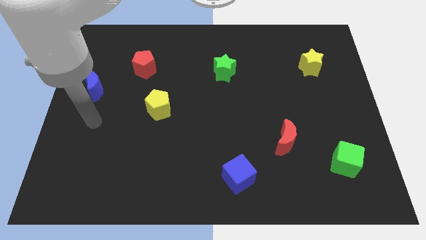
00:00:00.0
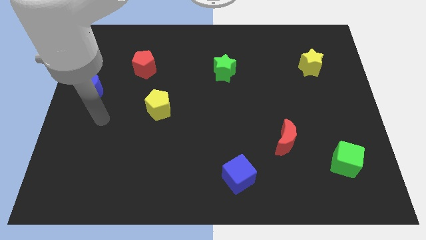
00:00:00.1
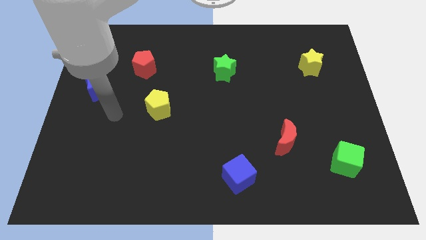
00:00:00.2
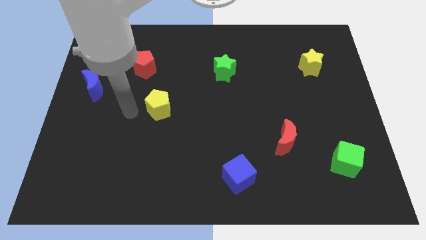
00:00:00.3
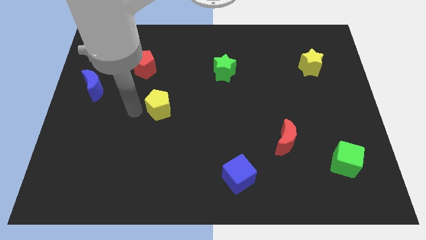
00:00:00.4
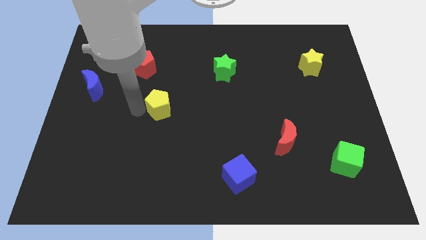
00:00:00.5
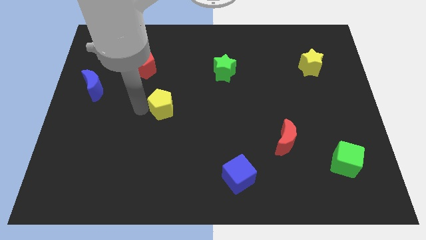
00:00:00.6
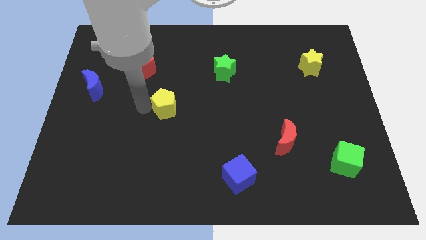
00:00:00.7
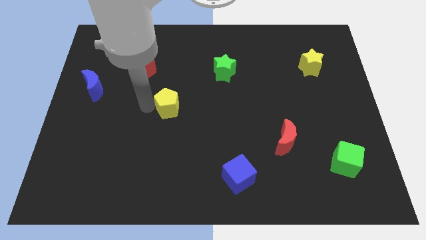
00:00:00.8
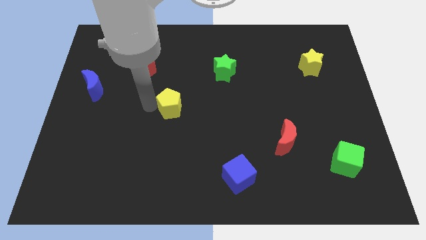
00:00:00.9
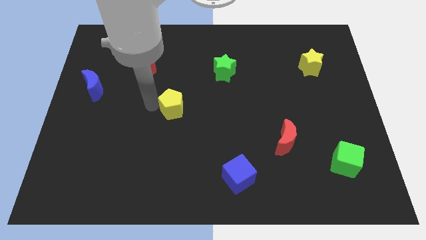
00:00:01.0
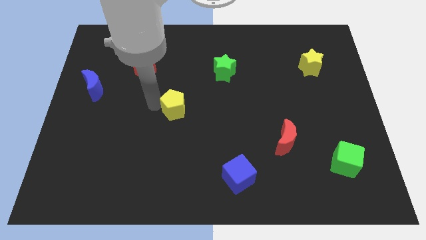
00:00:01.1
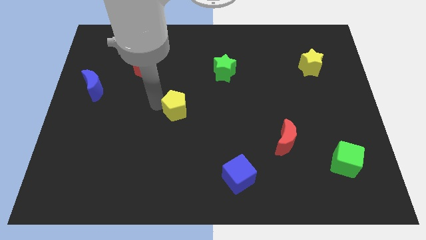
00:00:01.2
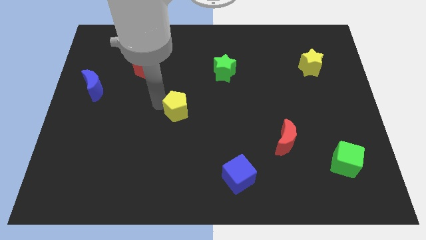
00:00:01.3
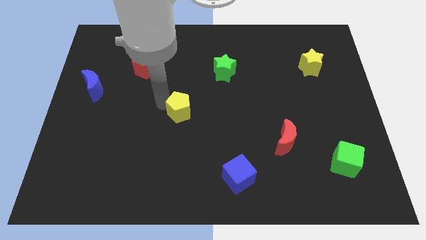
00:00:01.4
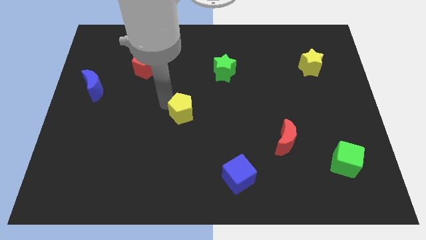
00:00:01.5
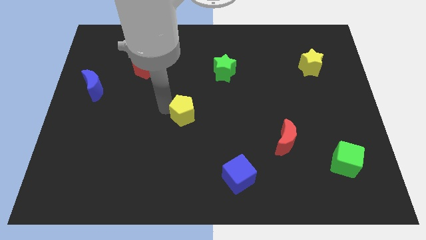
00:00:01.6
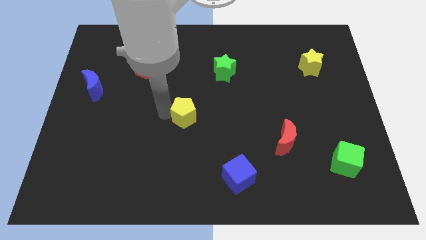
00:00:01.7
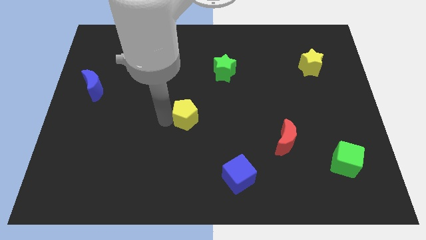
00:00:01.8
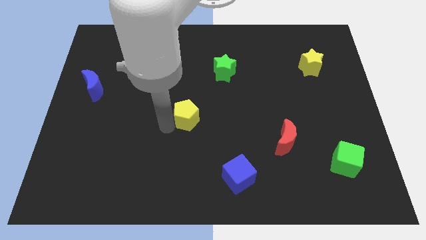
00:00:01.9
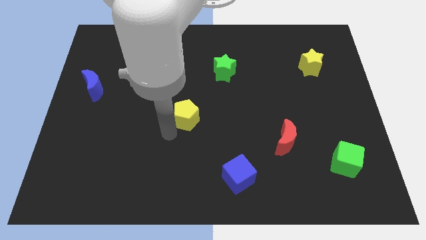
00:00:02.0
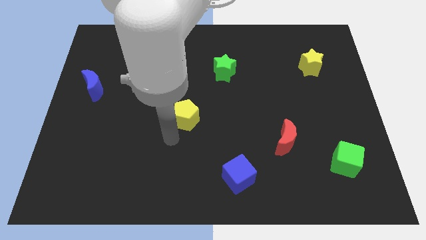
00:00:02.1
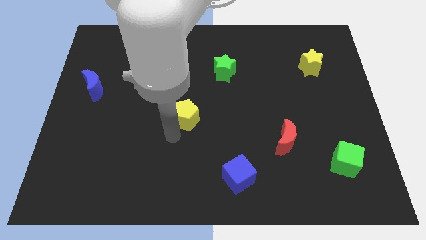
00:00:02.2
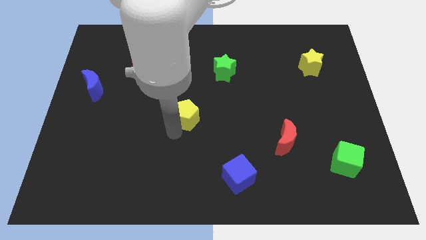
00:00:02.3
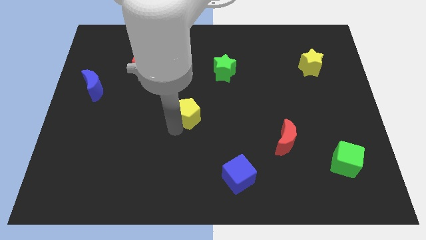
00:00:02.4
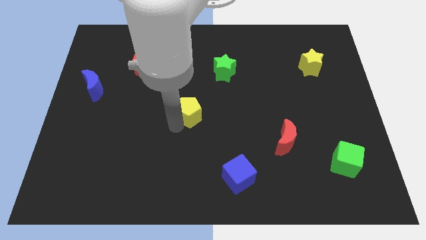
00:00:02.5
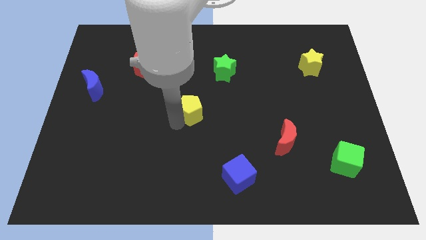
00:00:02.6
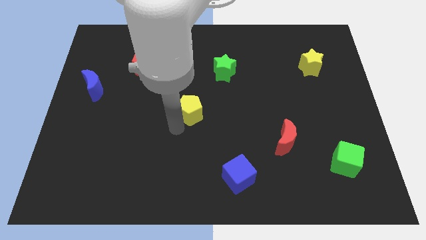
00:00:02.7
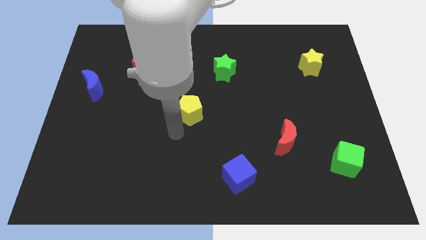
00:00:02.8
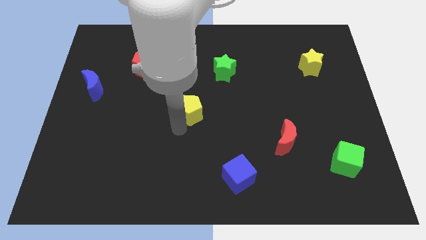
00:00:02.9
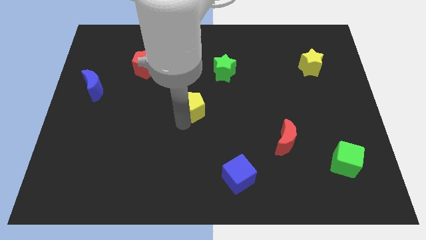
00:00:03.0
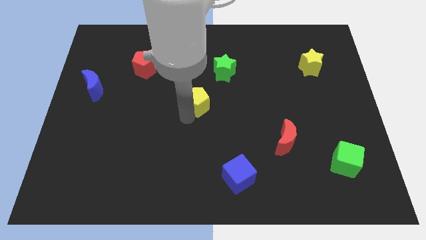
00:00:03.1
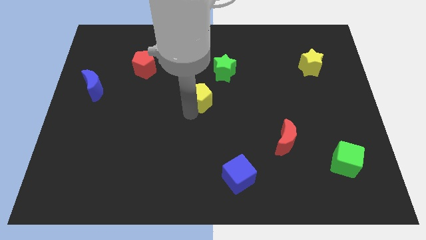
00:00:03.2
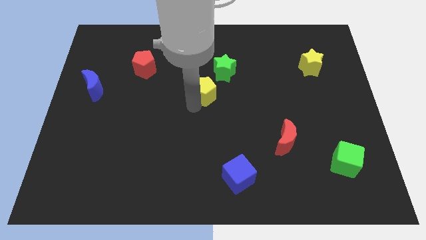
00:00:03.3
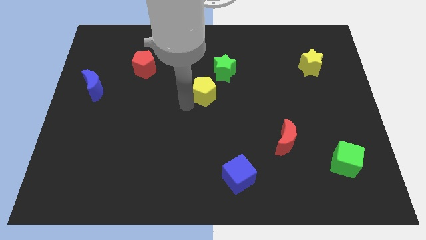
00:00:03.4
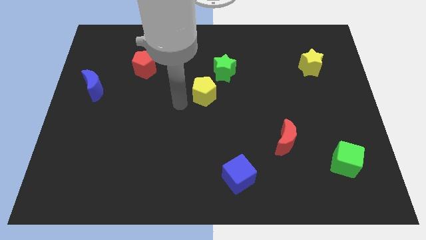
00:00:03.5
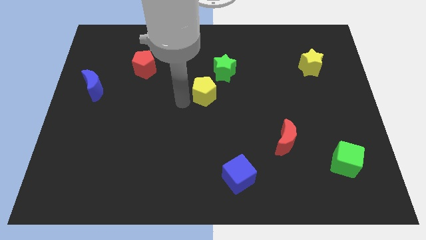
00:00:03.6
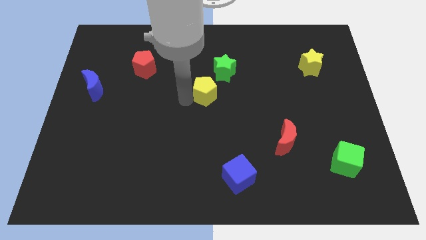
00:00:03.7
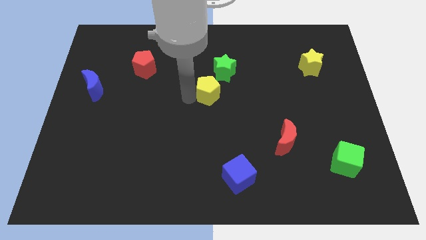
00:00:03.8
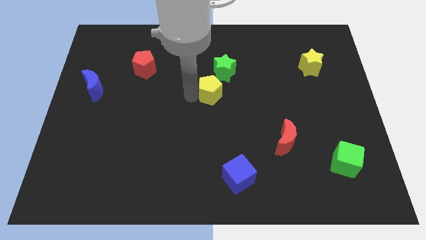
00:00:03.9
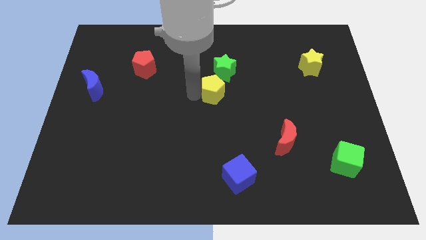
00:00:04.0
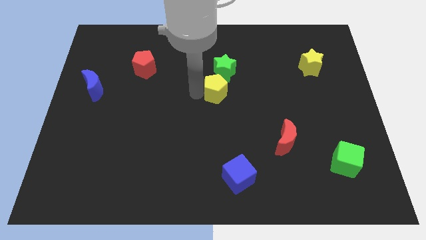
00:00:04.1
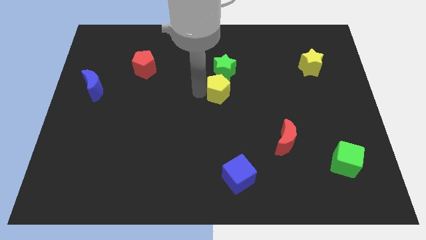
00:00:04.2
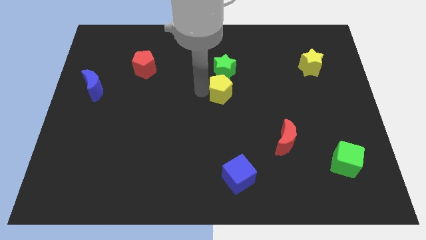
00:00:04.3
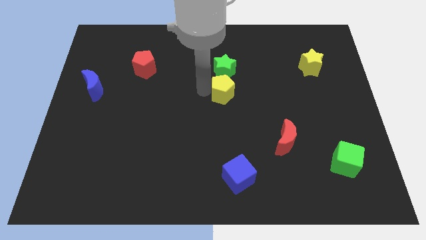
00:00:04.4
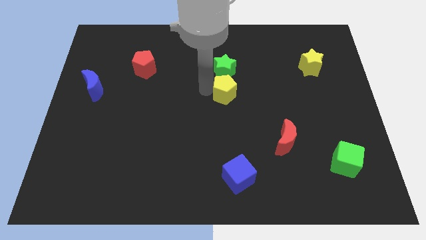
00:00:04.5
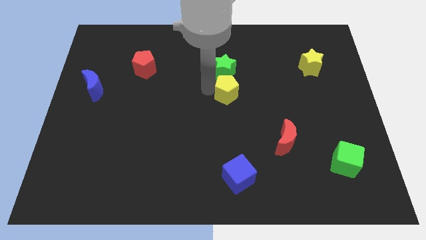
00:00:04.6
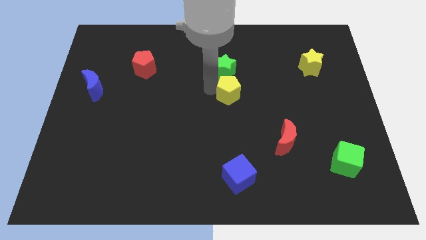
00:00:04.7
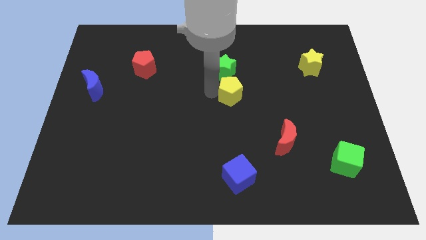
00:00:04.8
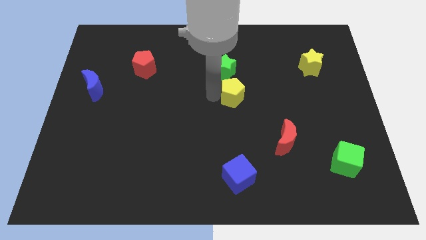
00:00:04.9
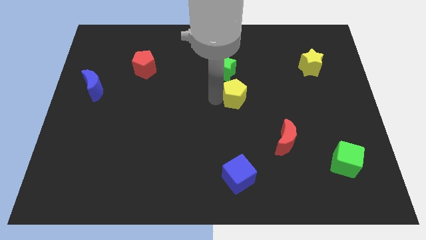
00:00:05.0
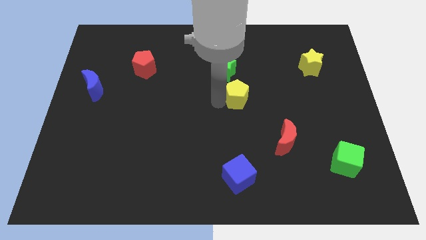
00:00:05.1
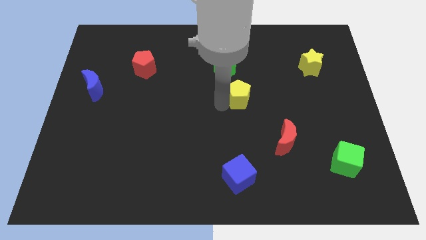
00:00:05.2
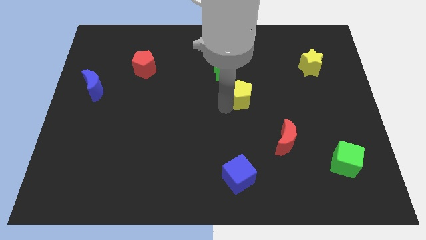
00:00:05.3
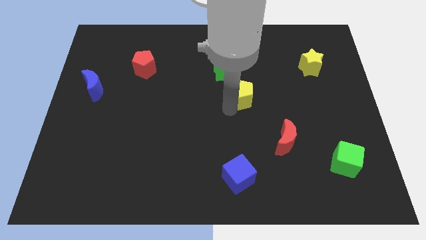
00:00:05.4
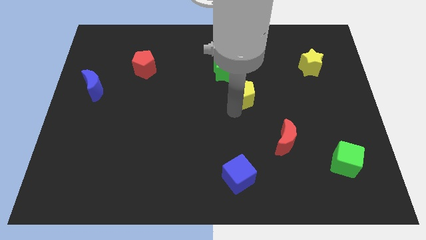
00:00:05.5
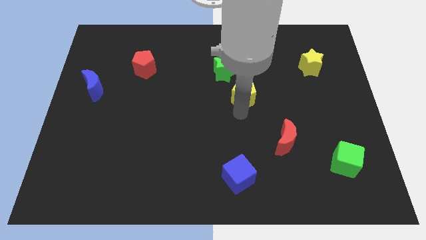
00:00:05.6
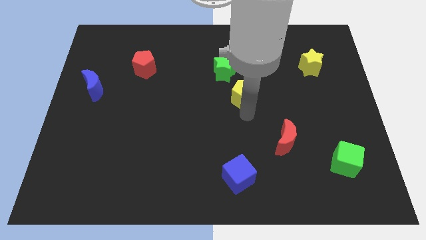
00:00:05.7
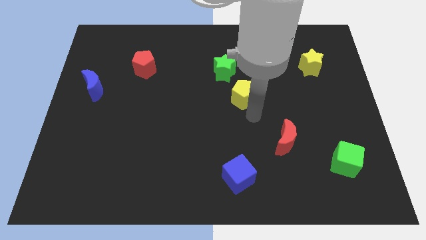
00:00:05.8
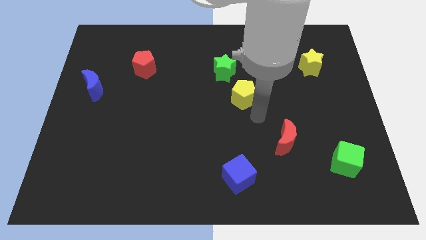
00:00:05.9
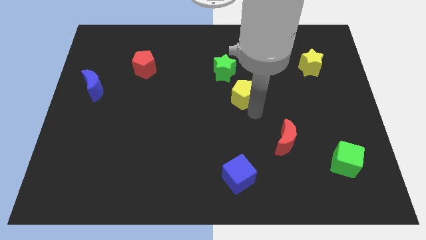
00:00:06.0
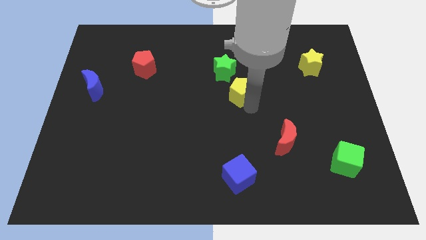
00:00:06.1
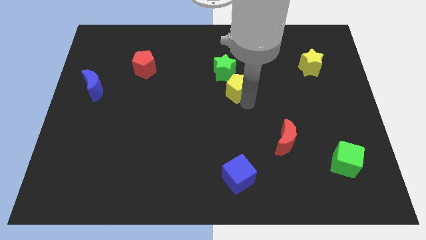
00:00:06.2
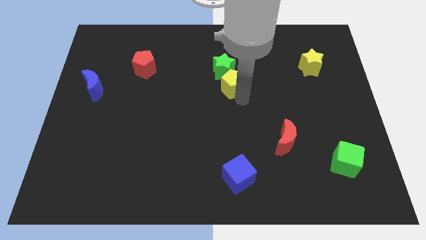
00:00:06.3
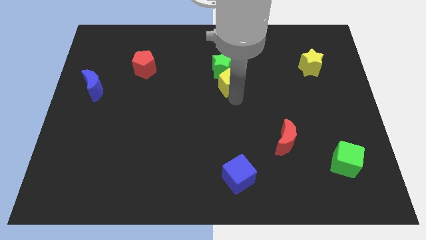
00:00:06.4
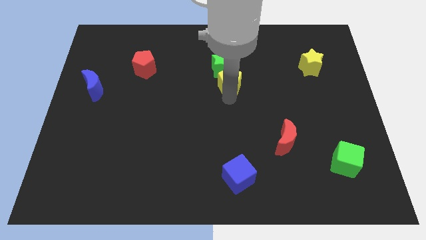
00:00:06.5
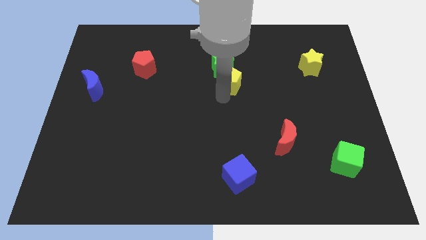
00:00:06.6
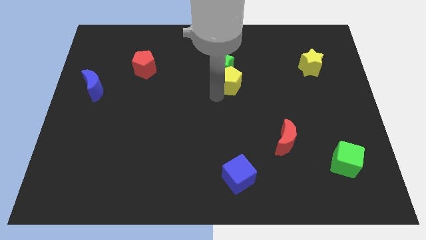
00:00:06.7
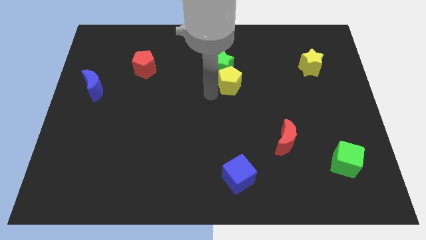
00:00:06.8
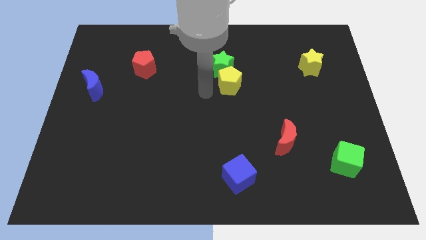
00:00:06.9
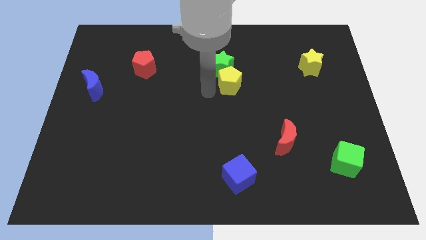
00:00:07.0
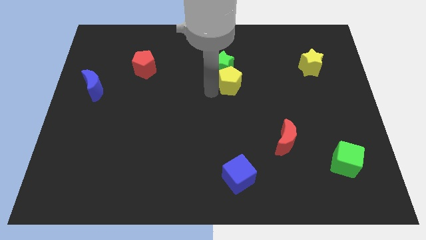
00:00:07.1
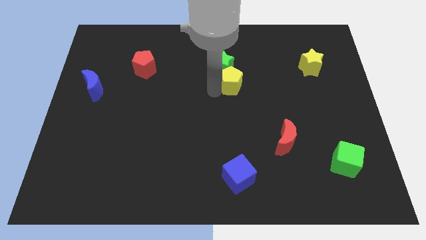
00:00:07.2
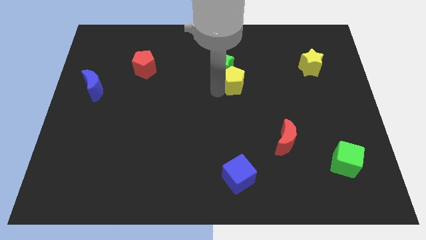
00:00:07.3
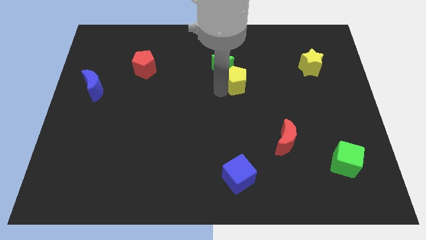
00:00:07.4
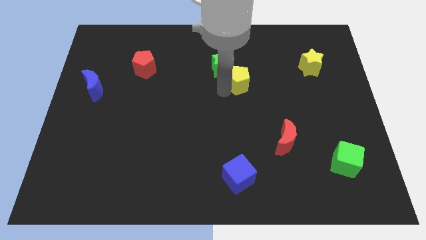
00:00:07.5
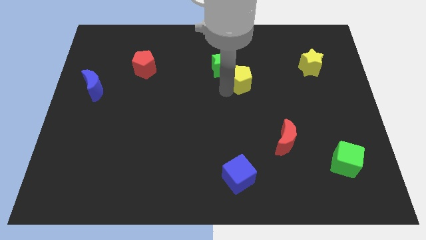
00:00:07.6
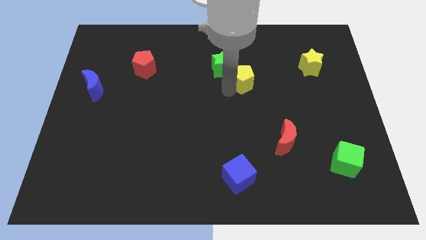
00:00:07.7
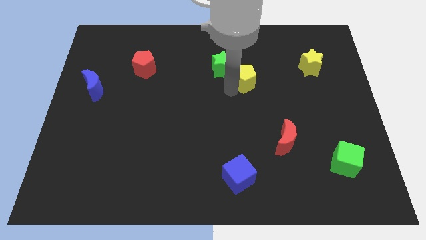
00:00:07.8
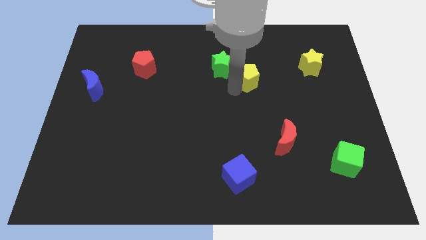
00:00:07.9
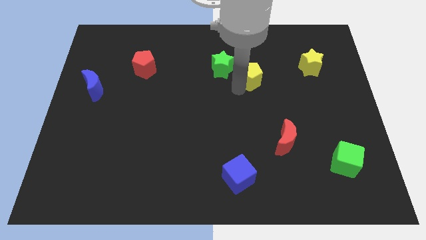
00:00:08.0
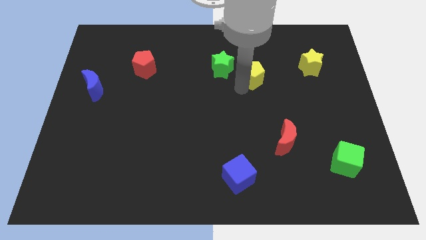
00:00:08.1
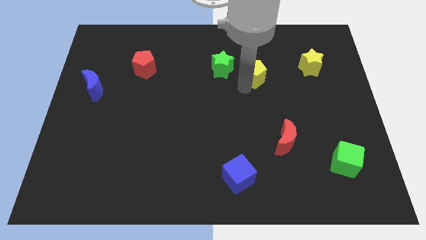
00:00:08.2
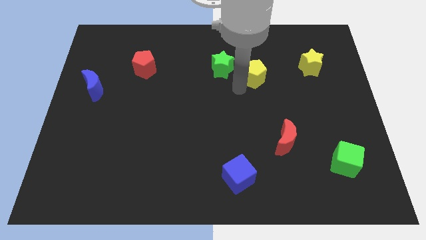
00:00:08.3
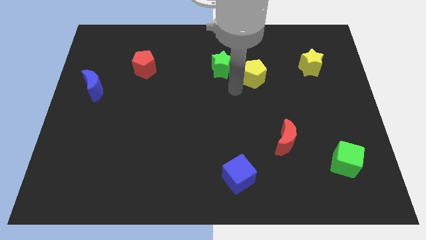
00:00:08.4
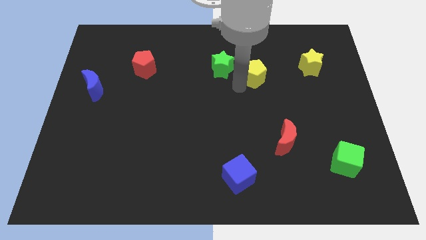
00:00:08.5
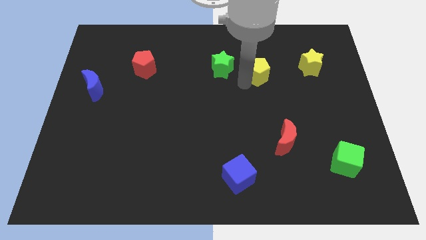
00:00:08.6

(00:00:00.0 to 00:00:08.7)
push the yellow pentagon left of the yellow star

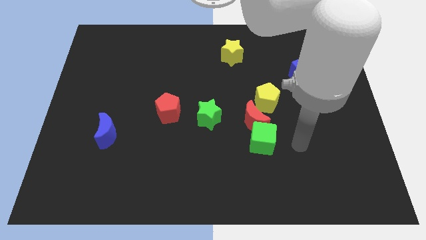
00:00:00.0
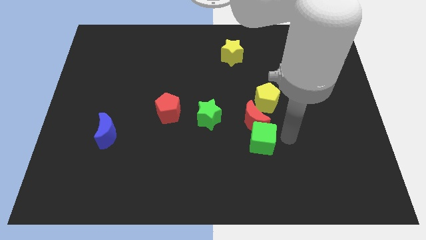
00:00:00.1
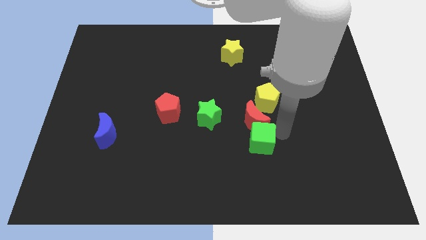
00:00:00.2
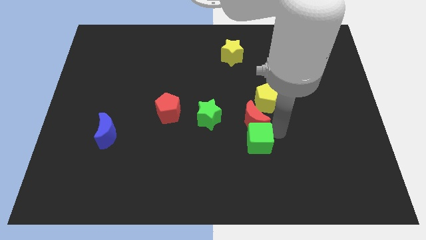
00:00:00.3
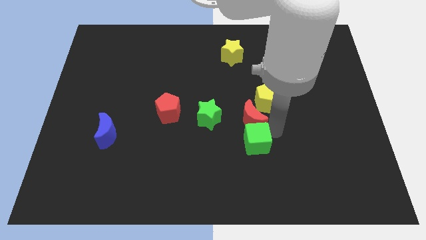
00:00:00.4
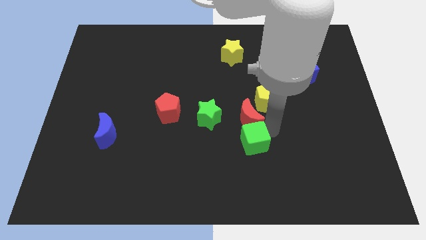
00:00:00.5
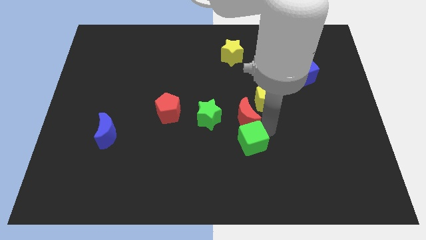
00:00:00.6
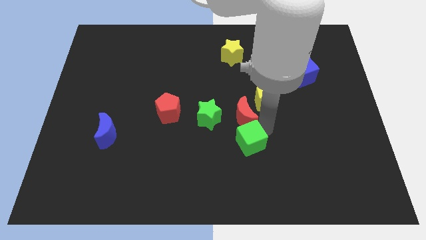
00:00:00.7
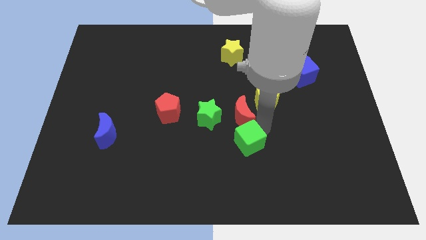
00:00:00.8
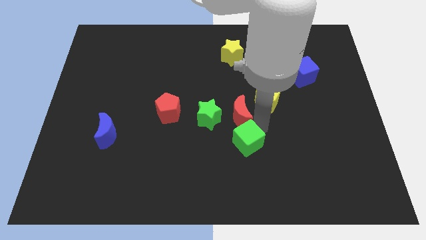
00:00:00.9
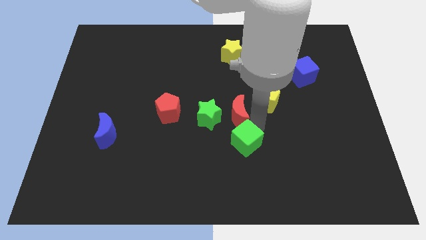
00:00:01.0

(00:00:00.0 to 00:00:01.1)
slide the red moon right of the red pentagon
